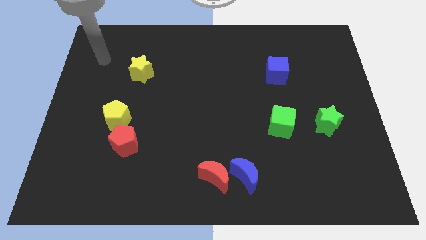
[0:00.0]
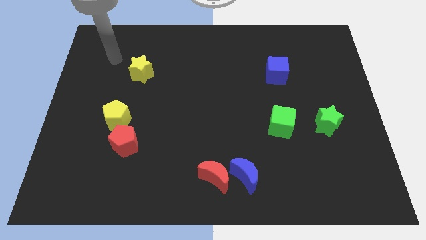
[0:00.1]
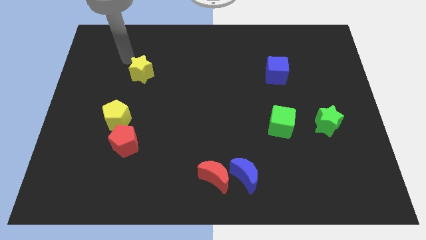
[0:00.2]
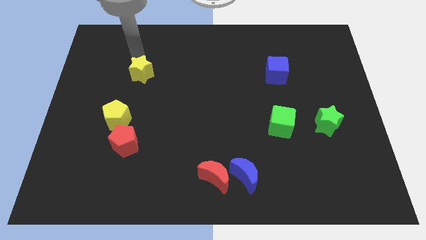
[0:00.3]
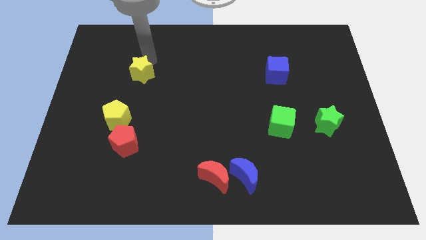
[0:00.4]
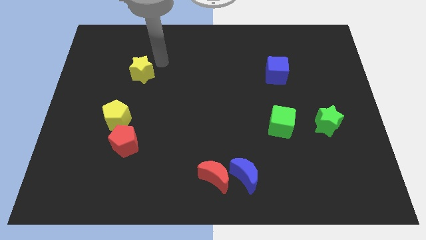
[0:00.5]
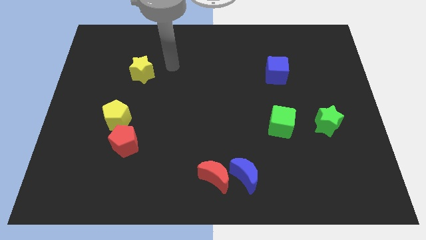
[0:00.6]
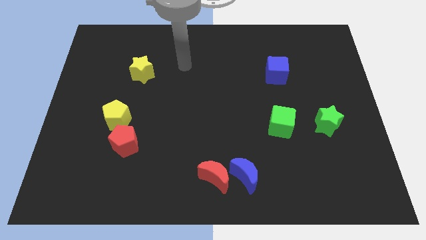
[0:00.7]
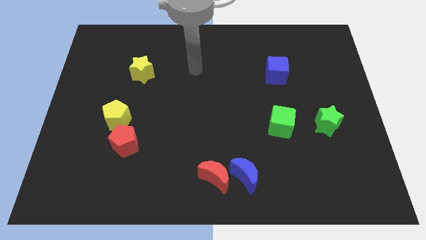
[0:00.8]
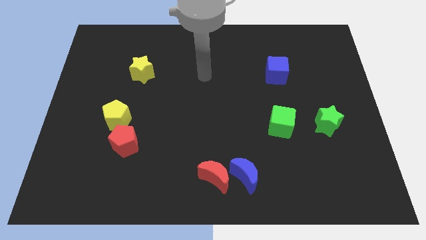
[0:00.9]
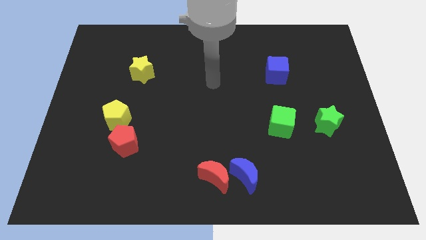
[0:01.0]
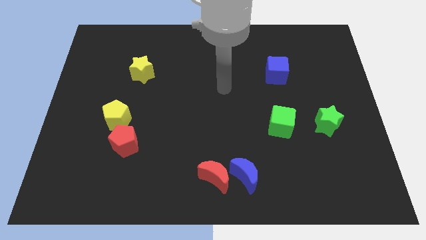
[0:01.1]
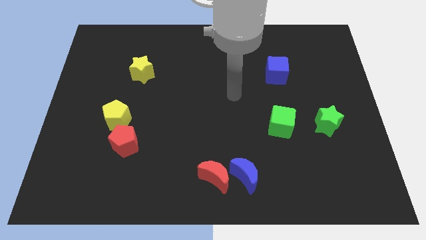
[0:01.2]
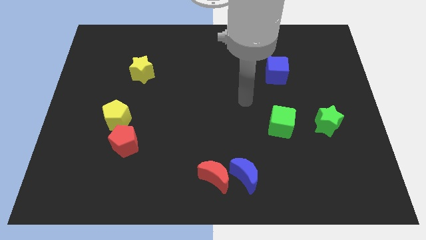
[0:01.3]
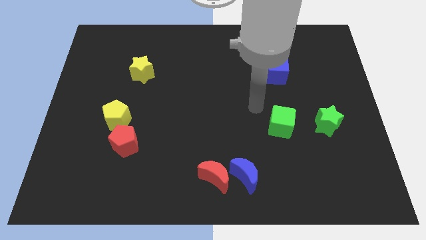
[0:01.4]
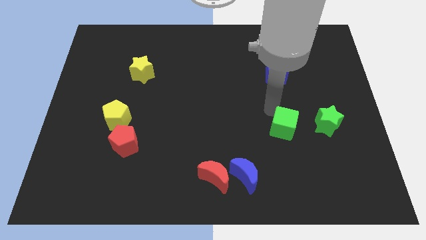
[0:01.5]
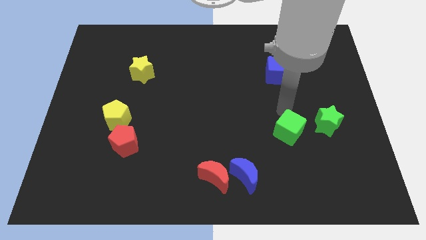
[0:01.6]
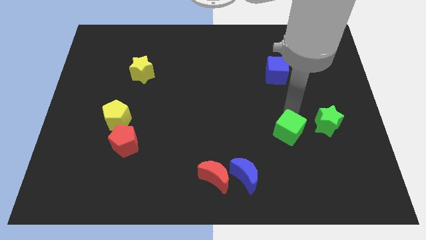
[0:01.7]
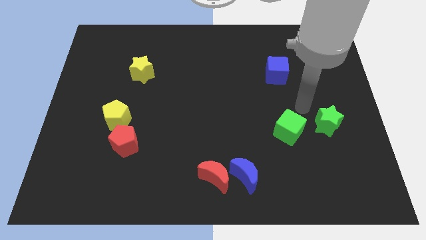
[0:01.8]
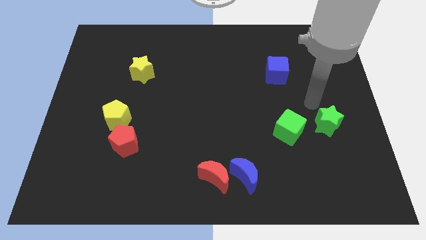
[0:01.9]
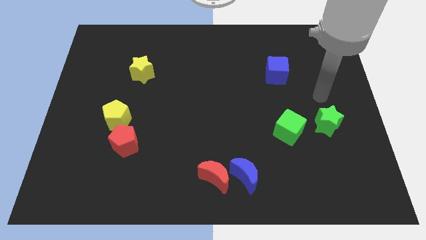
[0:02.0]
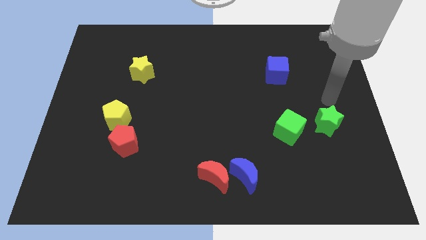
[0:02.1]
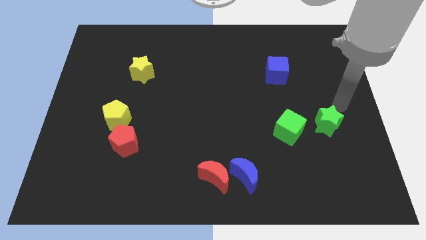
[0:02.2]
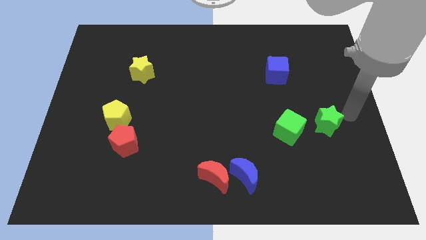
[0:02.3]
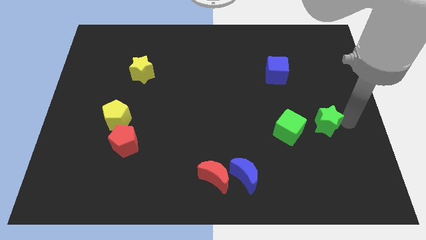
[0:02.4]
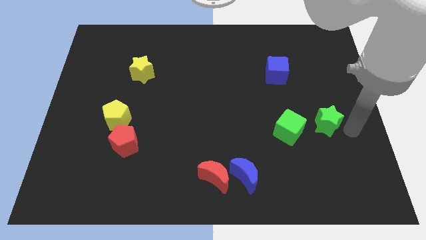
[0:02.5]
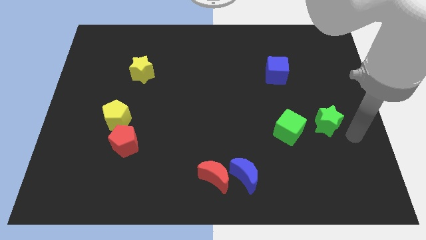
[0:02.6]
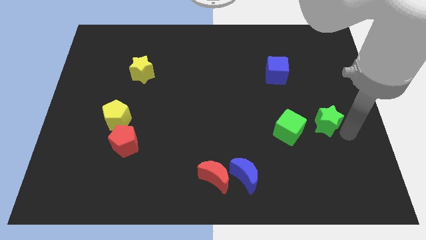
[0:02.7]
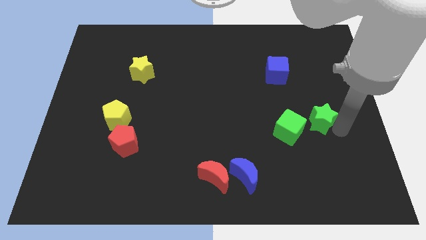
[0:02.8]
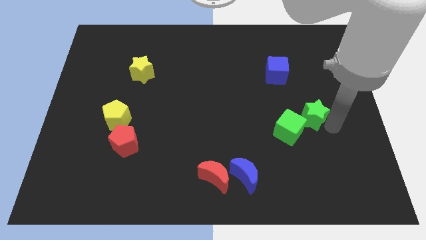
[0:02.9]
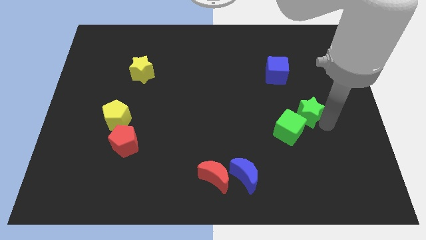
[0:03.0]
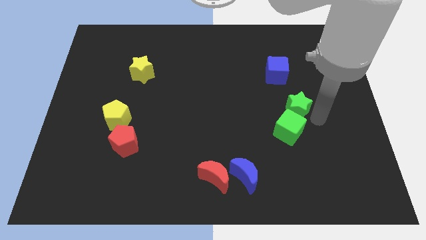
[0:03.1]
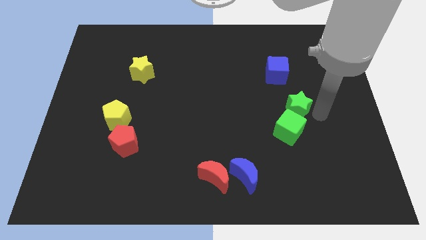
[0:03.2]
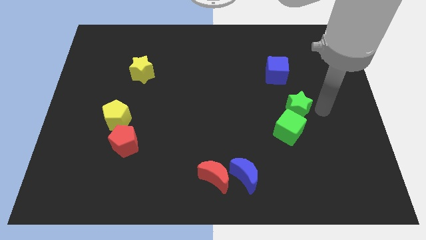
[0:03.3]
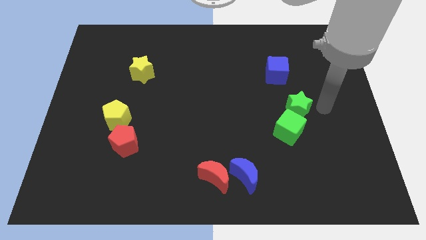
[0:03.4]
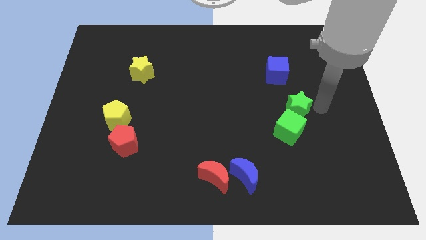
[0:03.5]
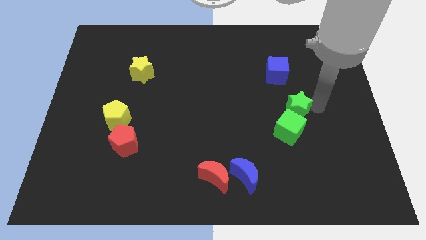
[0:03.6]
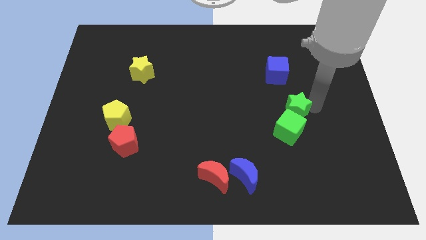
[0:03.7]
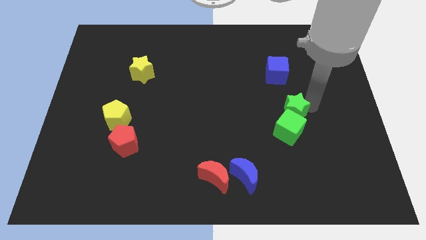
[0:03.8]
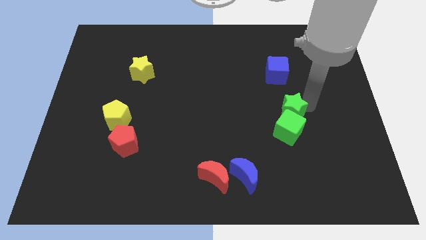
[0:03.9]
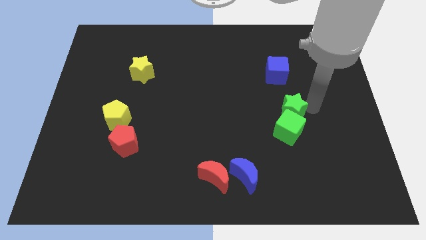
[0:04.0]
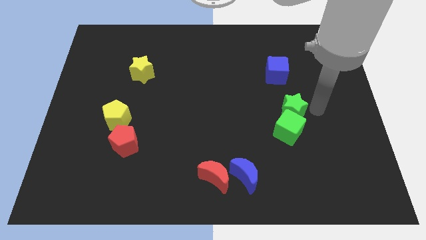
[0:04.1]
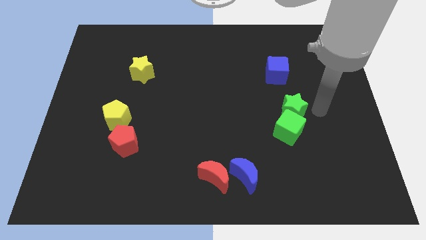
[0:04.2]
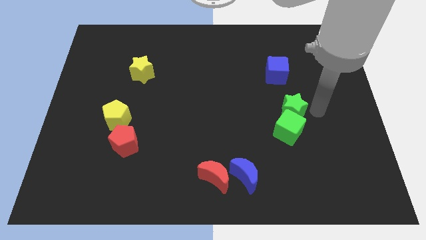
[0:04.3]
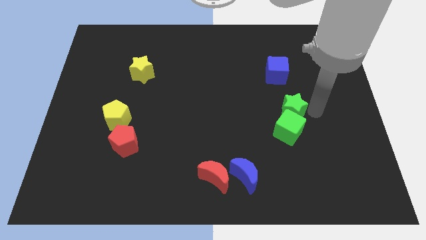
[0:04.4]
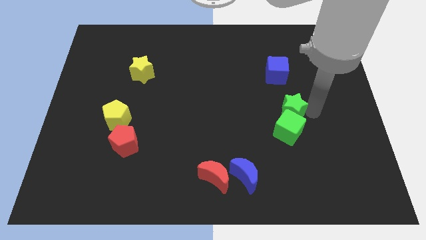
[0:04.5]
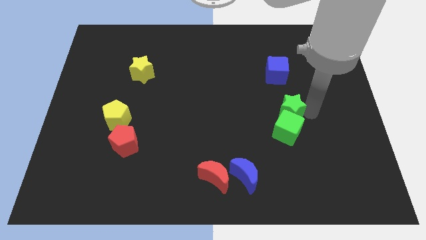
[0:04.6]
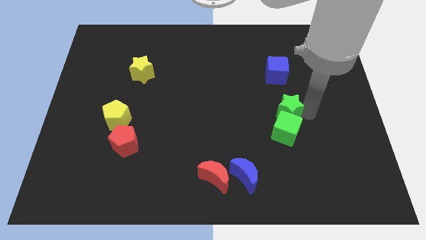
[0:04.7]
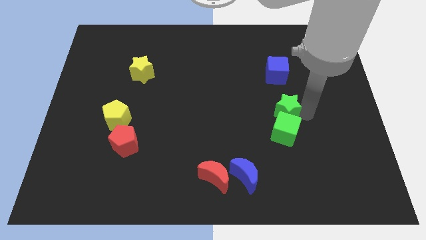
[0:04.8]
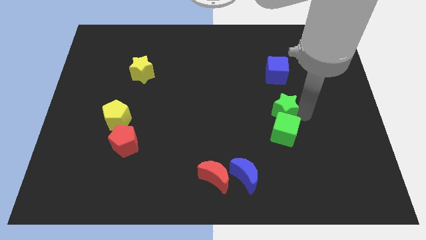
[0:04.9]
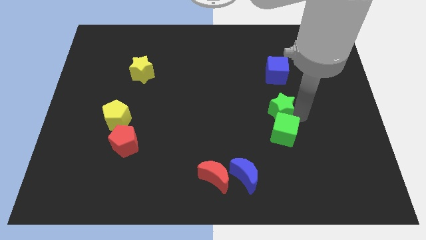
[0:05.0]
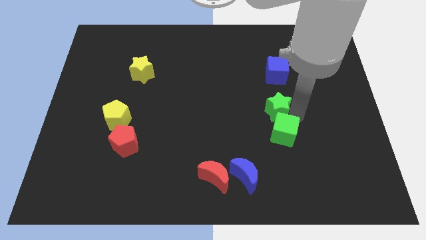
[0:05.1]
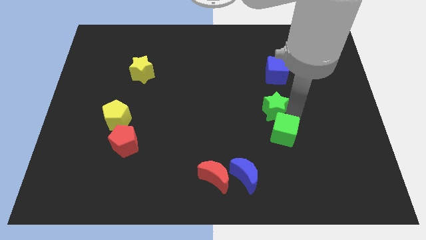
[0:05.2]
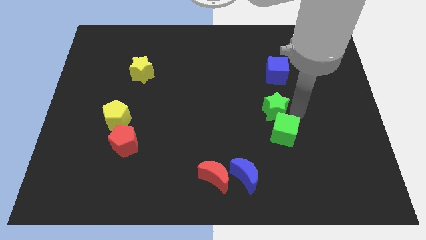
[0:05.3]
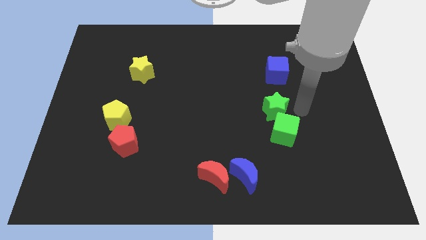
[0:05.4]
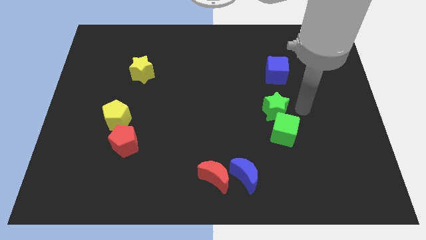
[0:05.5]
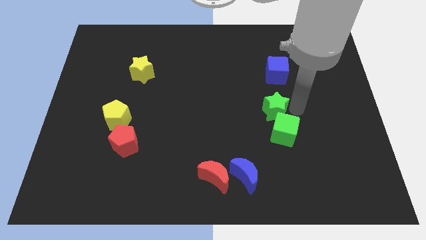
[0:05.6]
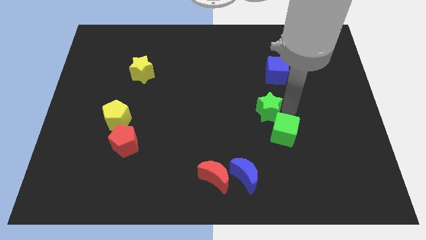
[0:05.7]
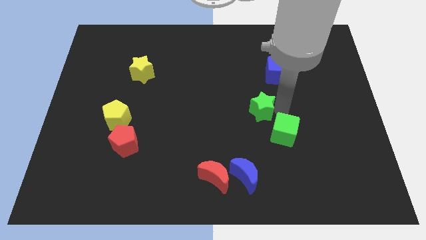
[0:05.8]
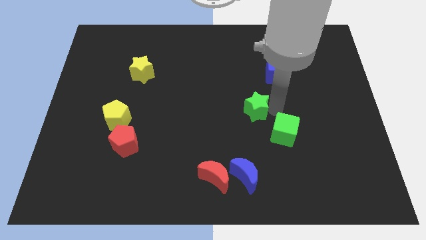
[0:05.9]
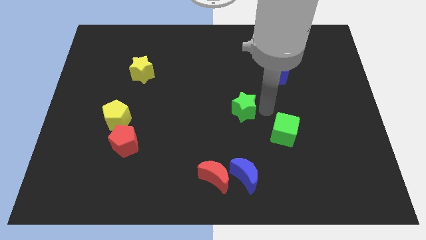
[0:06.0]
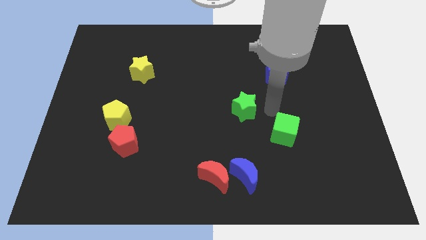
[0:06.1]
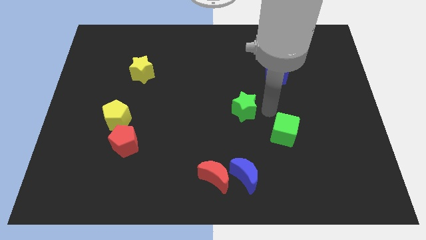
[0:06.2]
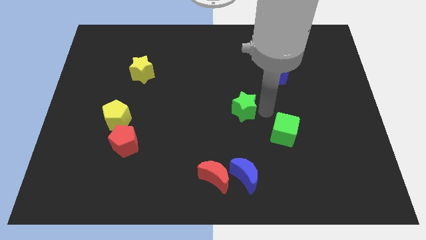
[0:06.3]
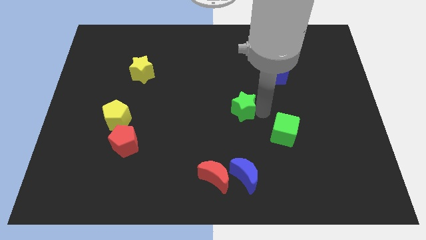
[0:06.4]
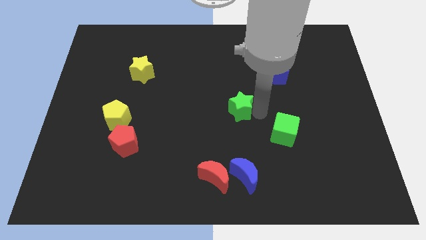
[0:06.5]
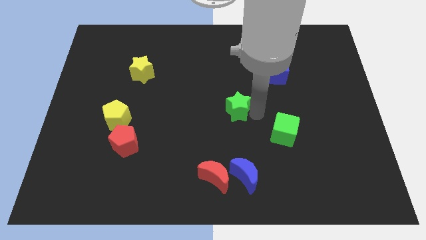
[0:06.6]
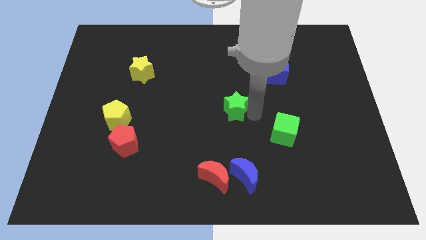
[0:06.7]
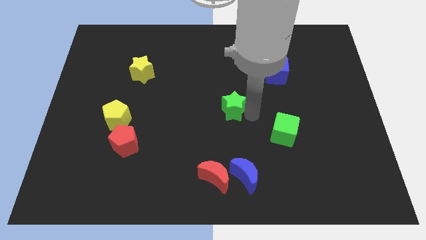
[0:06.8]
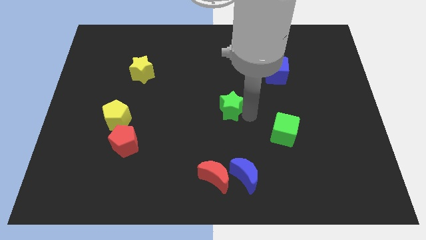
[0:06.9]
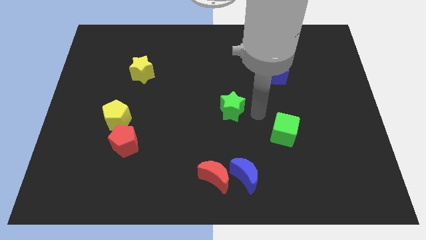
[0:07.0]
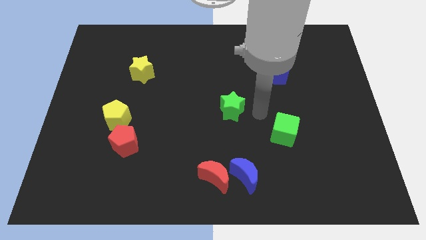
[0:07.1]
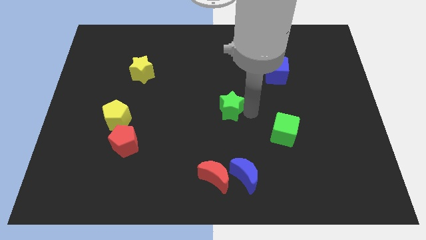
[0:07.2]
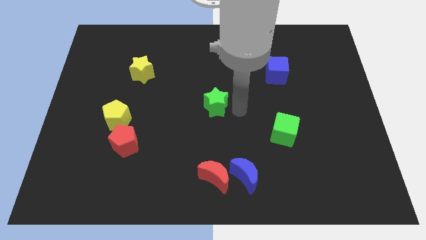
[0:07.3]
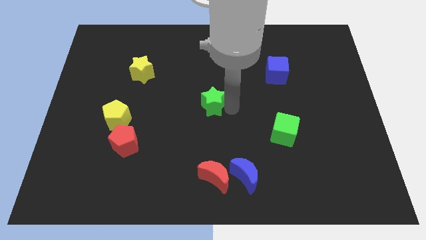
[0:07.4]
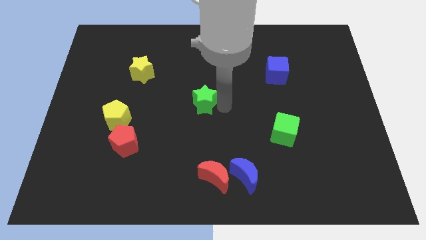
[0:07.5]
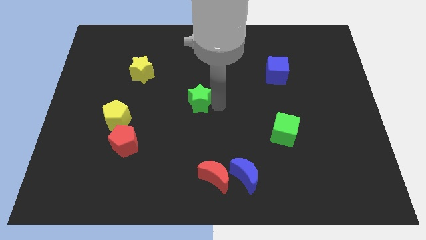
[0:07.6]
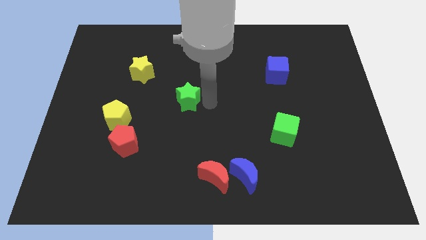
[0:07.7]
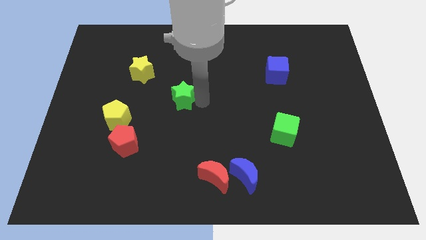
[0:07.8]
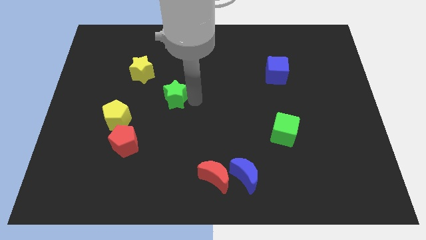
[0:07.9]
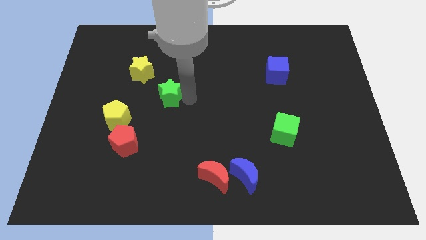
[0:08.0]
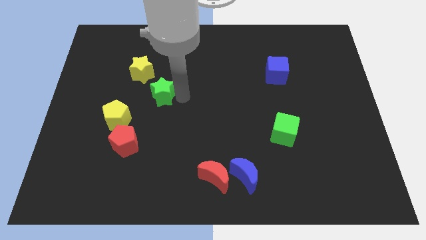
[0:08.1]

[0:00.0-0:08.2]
slide the green star to the top right of the yellow pentagon
